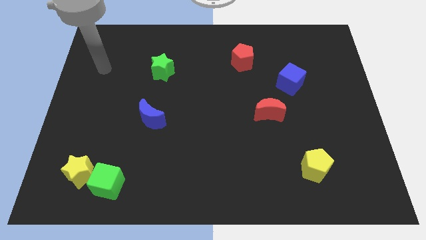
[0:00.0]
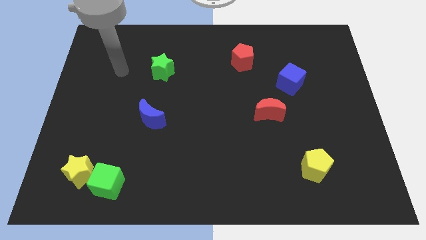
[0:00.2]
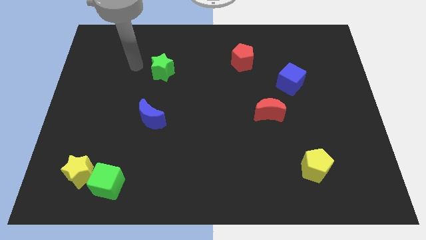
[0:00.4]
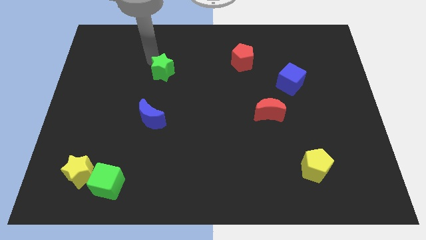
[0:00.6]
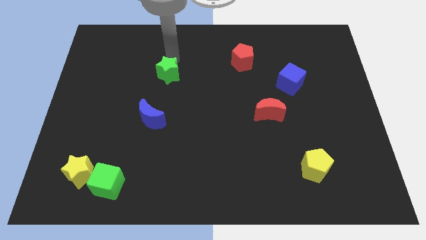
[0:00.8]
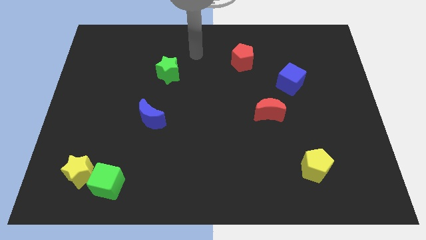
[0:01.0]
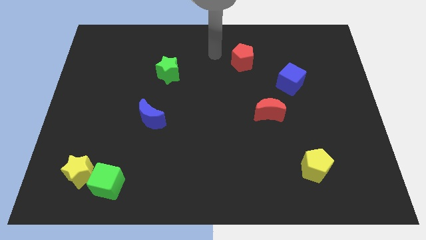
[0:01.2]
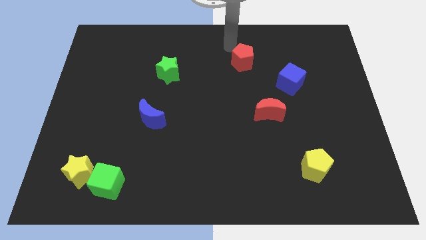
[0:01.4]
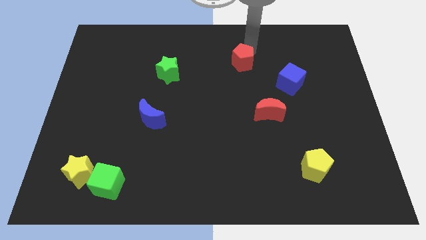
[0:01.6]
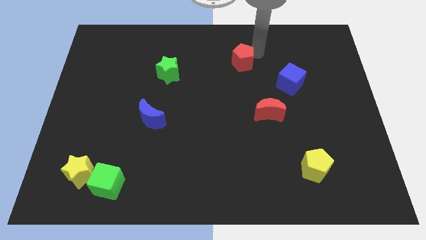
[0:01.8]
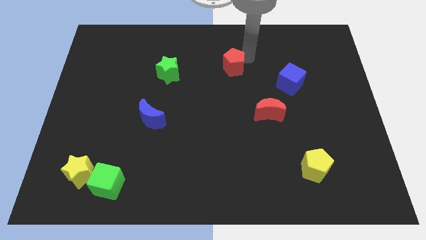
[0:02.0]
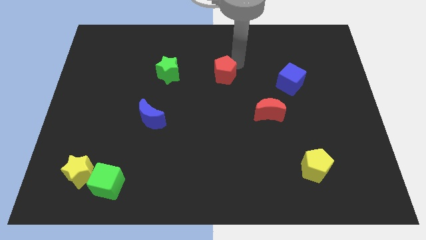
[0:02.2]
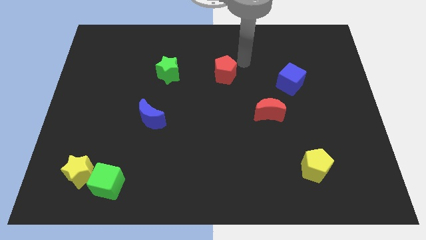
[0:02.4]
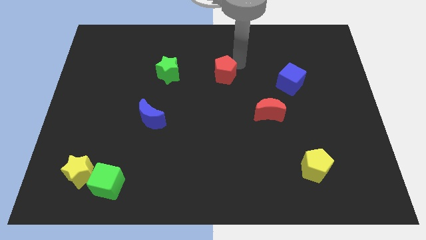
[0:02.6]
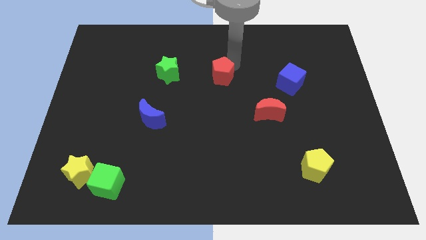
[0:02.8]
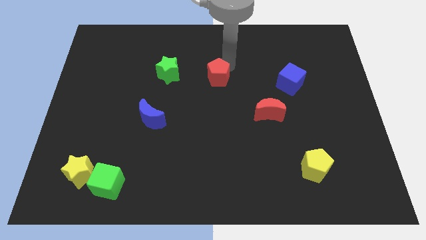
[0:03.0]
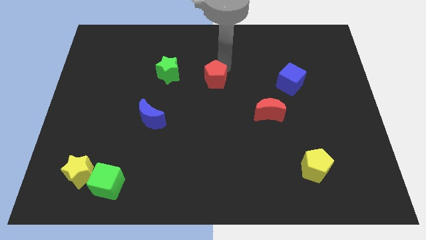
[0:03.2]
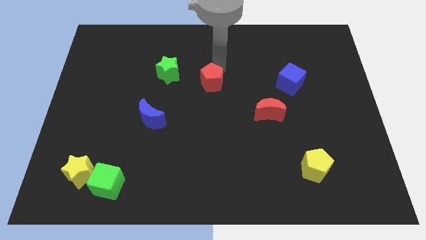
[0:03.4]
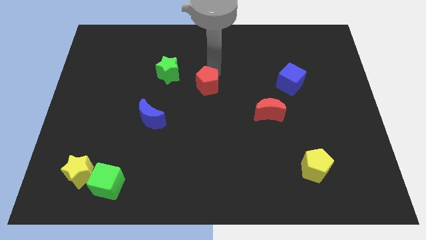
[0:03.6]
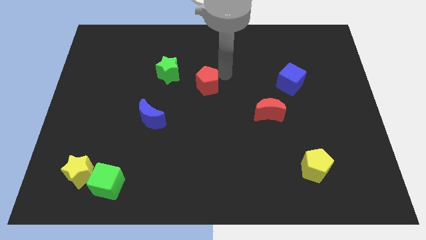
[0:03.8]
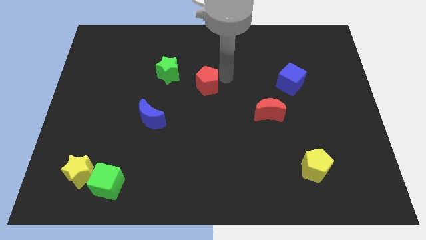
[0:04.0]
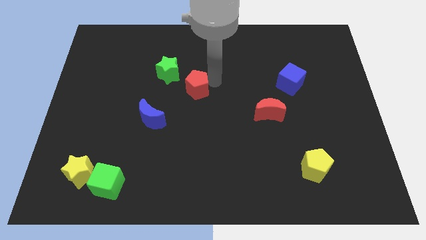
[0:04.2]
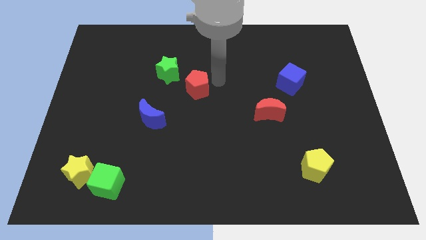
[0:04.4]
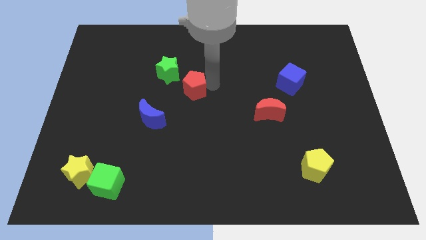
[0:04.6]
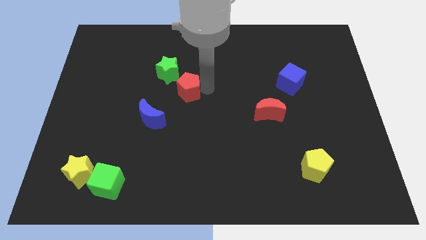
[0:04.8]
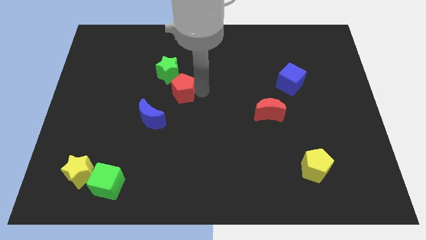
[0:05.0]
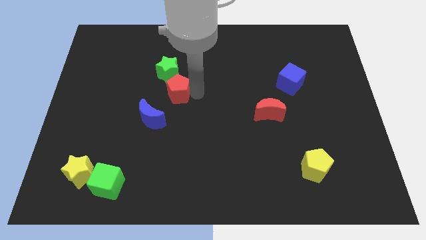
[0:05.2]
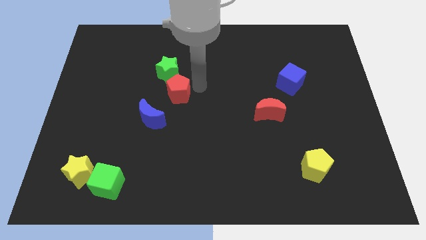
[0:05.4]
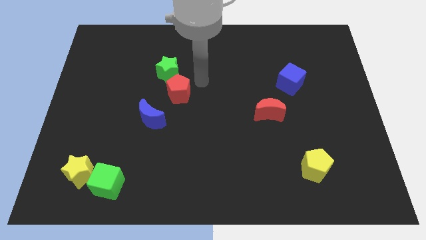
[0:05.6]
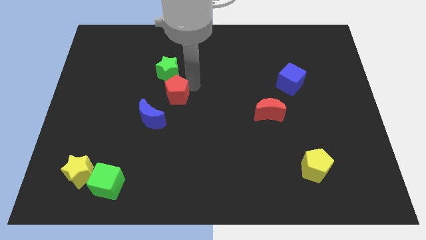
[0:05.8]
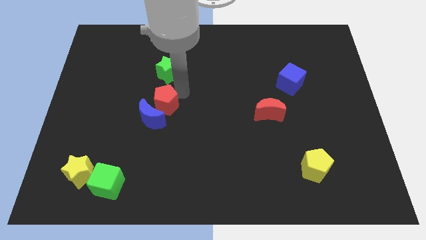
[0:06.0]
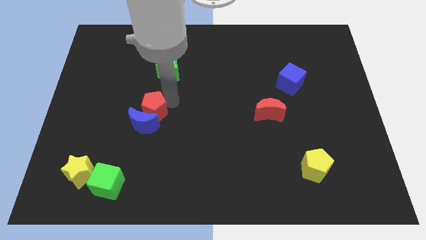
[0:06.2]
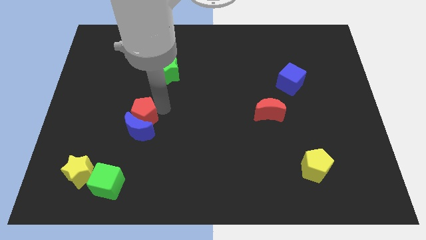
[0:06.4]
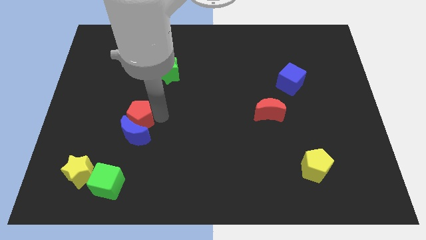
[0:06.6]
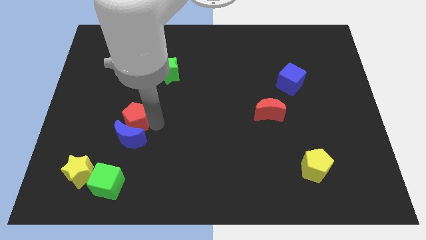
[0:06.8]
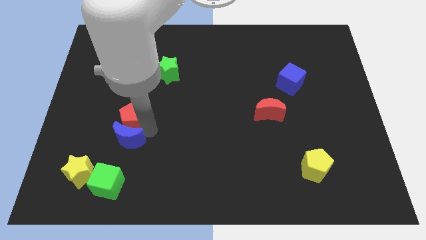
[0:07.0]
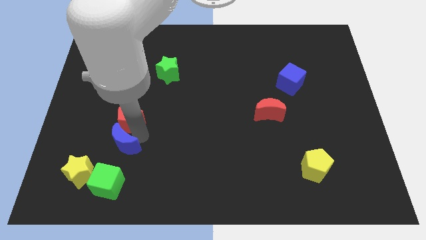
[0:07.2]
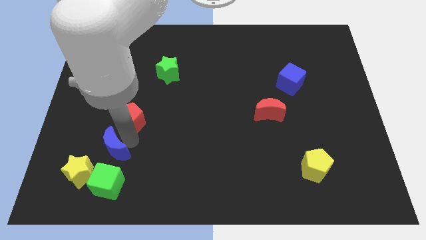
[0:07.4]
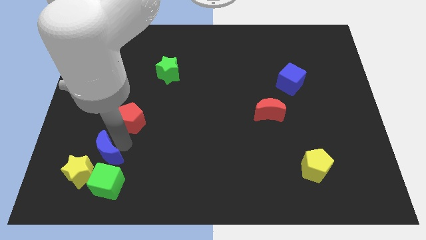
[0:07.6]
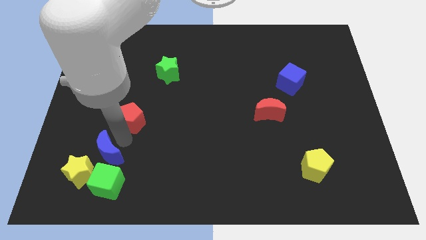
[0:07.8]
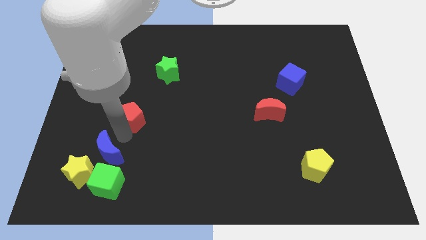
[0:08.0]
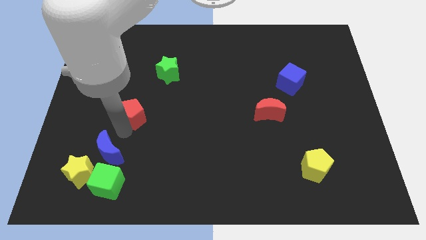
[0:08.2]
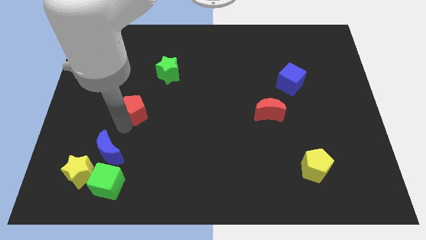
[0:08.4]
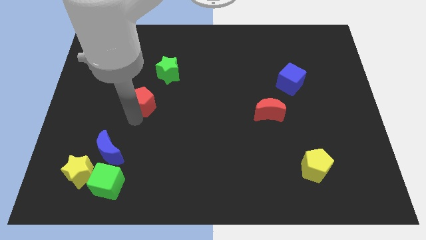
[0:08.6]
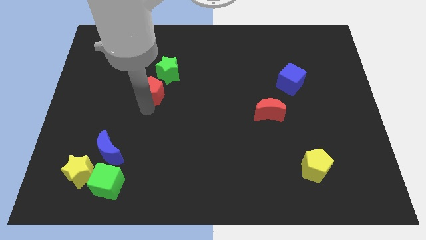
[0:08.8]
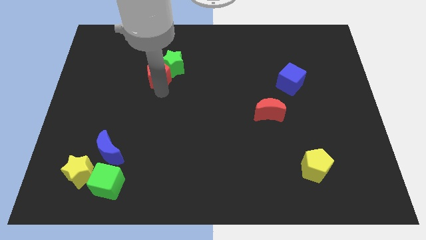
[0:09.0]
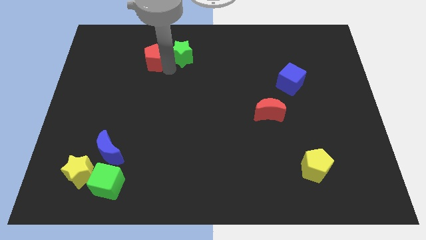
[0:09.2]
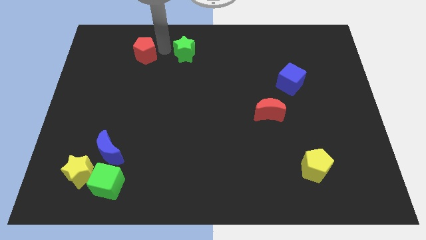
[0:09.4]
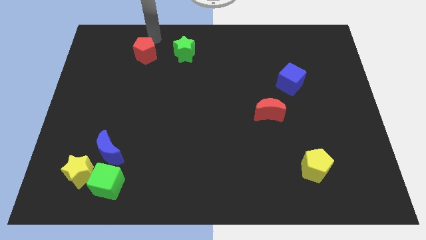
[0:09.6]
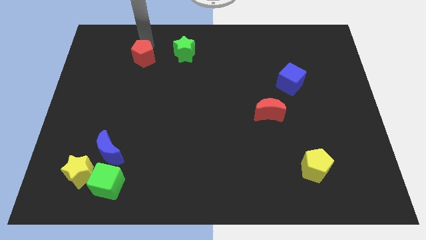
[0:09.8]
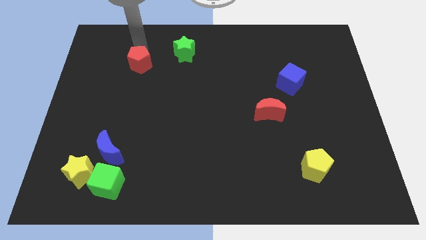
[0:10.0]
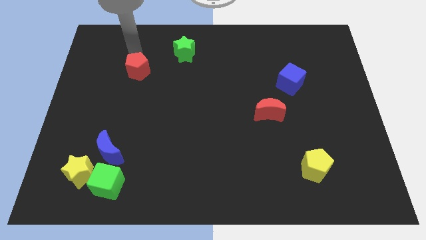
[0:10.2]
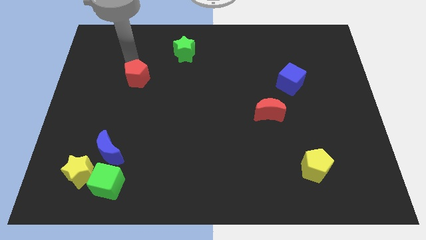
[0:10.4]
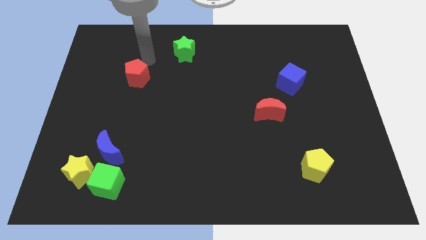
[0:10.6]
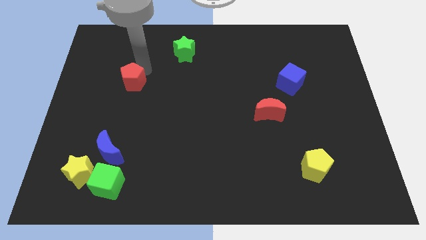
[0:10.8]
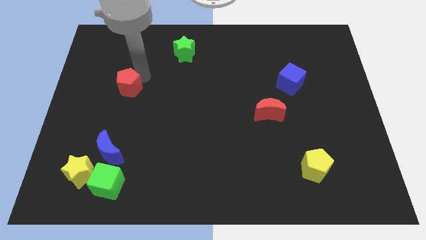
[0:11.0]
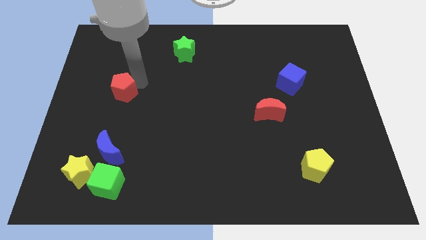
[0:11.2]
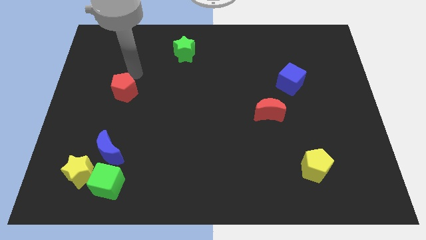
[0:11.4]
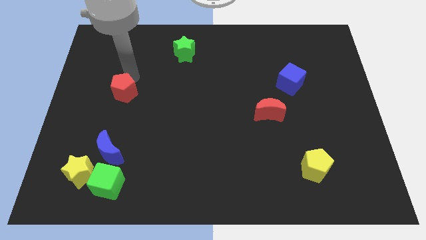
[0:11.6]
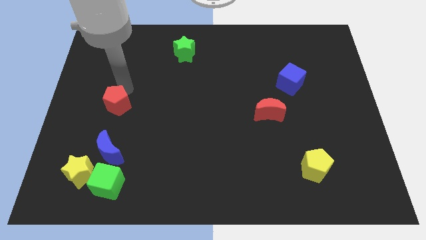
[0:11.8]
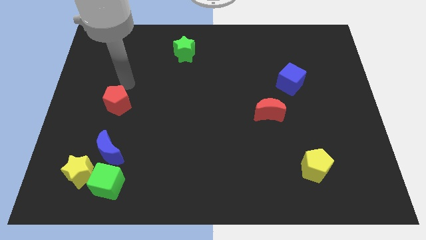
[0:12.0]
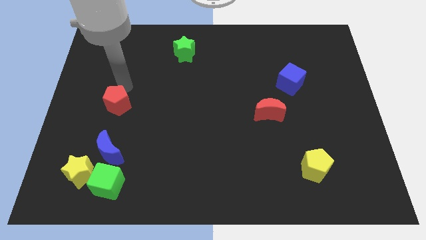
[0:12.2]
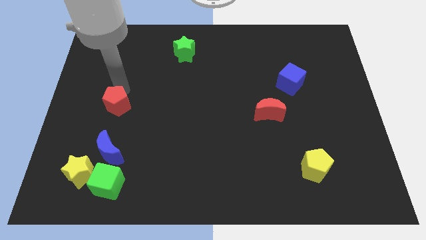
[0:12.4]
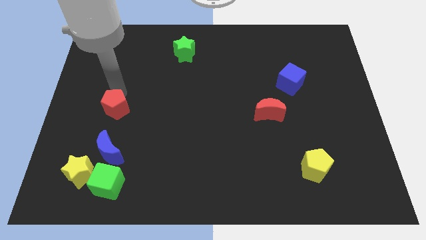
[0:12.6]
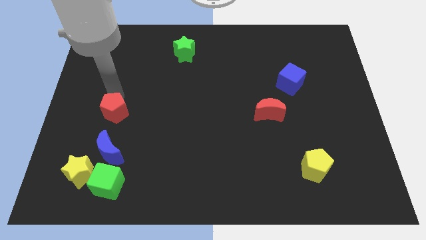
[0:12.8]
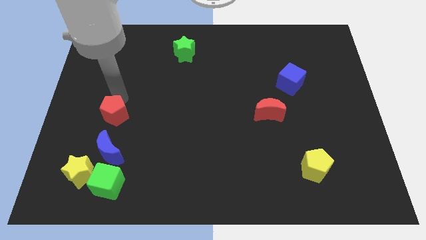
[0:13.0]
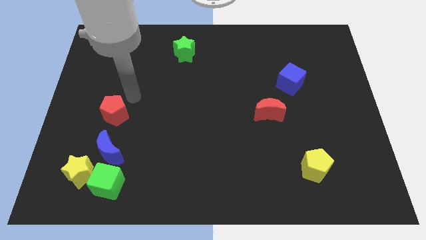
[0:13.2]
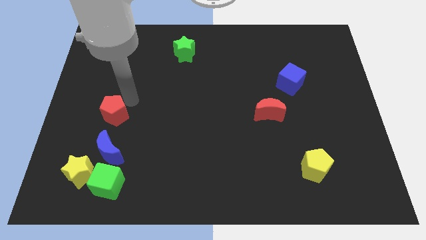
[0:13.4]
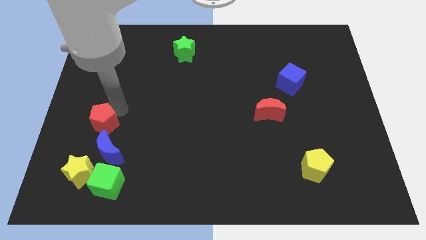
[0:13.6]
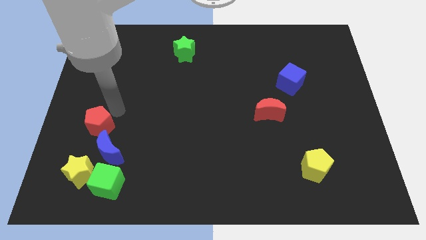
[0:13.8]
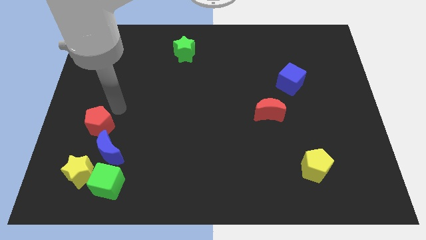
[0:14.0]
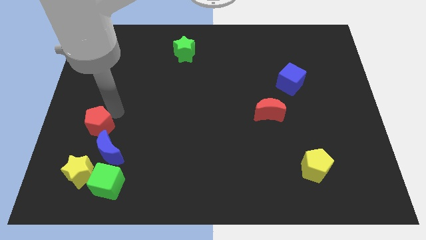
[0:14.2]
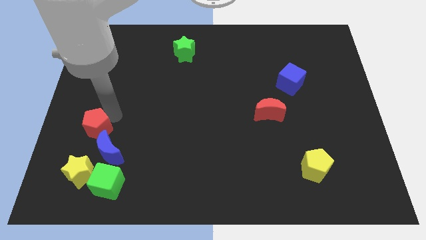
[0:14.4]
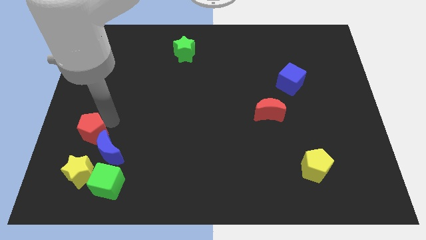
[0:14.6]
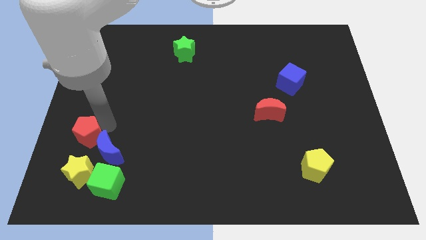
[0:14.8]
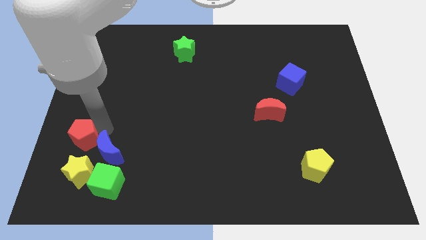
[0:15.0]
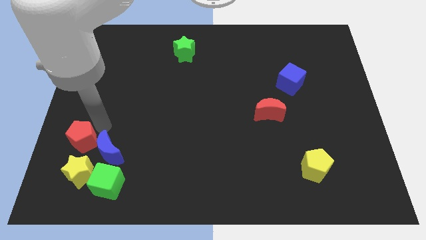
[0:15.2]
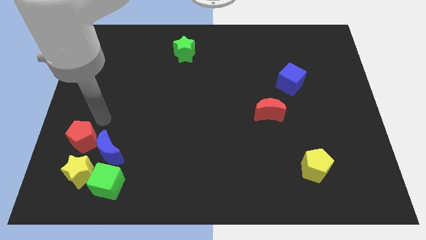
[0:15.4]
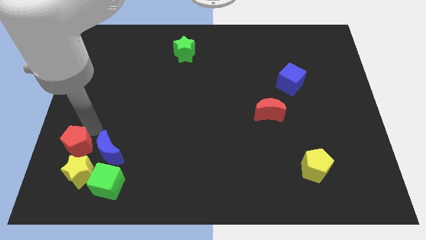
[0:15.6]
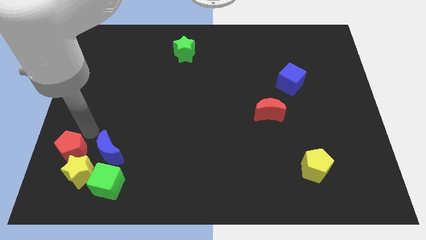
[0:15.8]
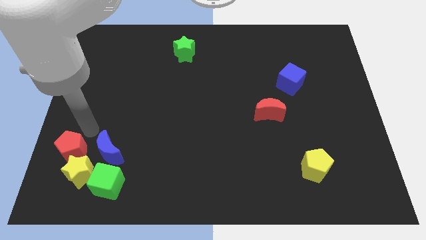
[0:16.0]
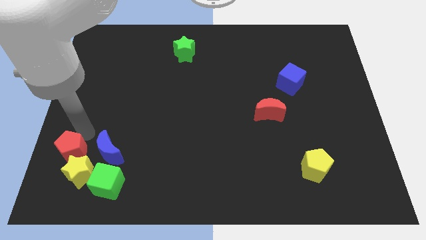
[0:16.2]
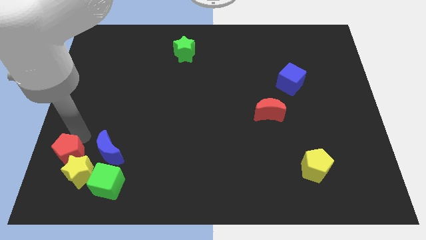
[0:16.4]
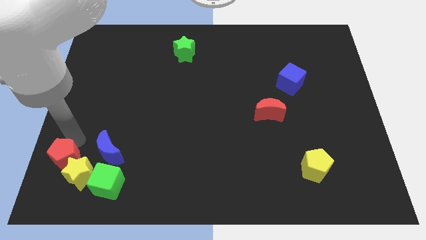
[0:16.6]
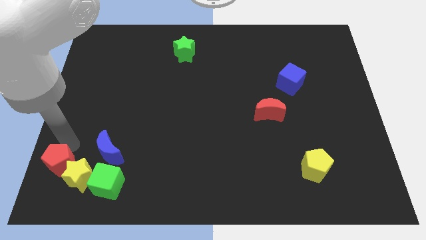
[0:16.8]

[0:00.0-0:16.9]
push the red pentagon to the bottom left of the board
